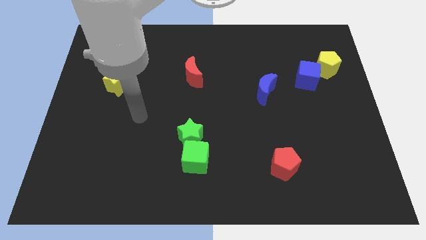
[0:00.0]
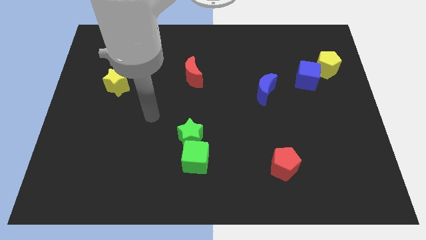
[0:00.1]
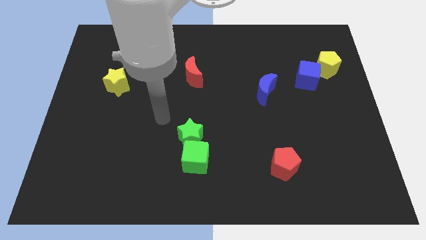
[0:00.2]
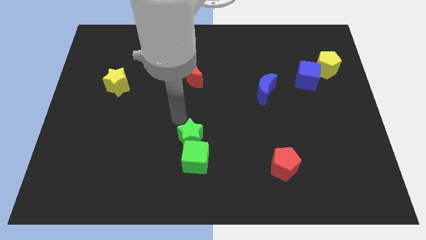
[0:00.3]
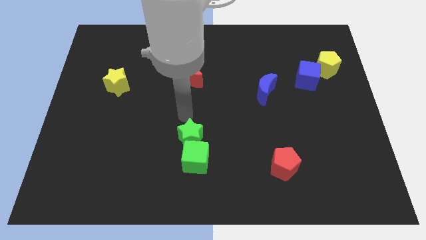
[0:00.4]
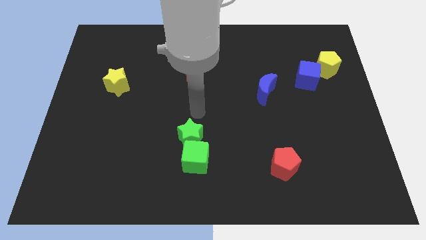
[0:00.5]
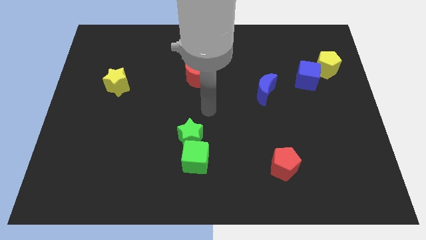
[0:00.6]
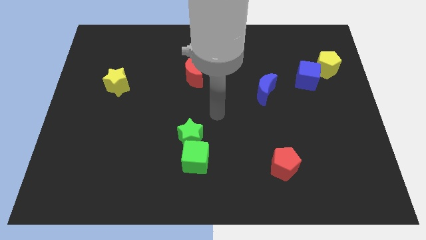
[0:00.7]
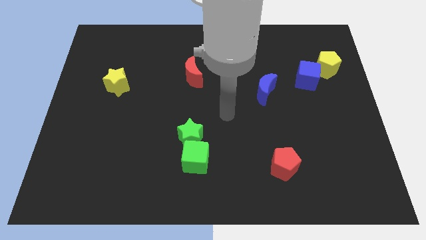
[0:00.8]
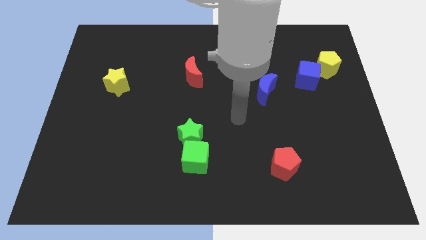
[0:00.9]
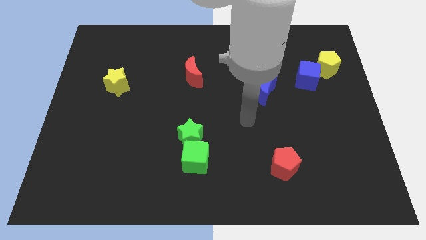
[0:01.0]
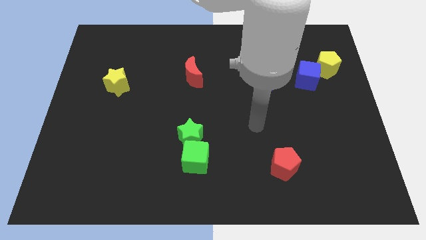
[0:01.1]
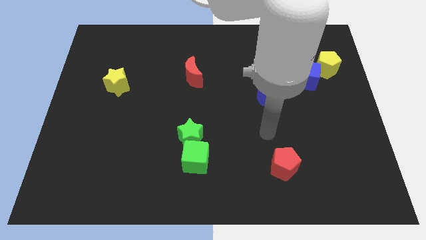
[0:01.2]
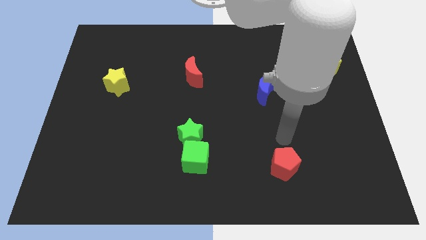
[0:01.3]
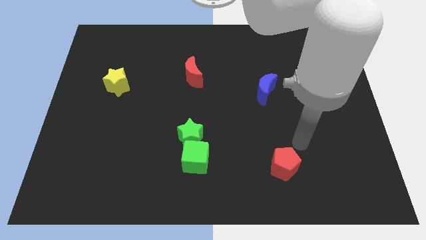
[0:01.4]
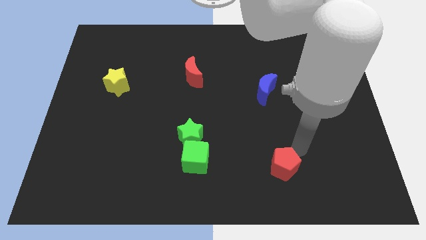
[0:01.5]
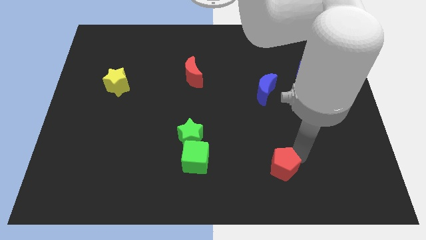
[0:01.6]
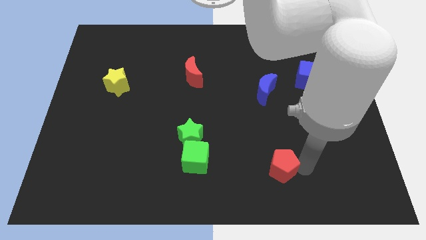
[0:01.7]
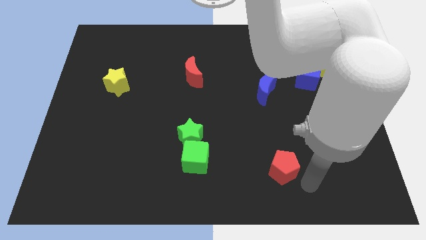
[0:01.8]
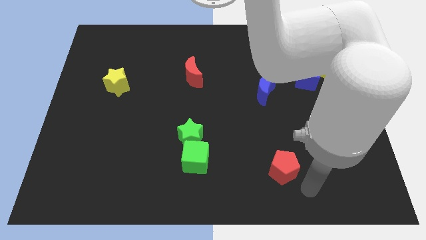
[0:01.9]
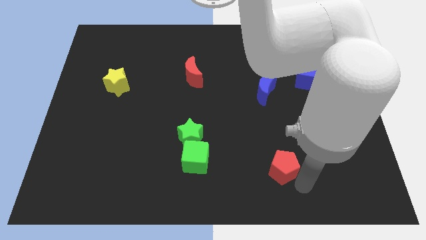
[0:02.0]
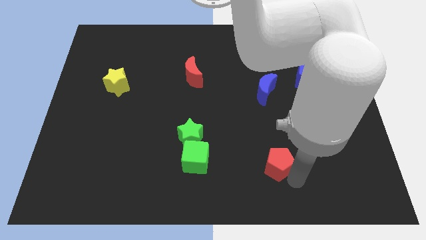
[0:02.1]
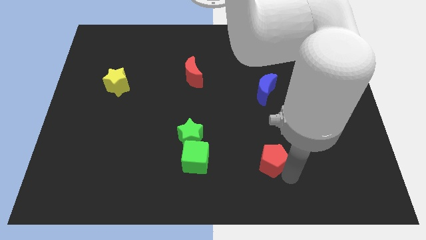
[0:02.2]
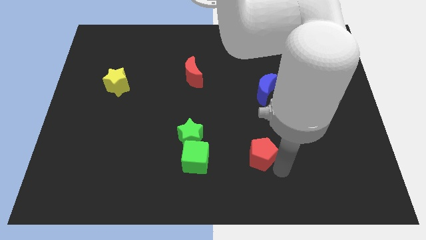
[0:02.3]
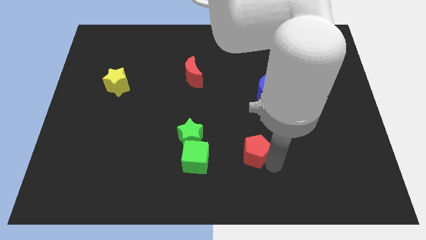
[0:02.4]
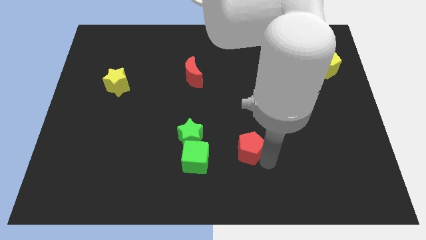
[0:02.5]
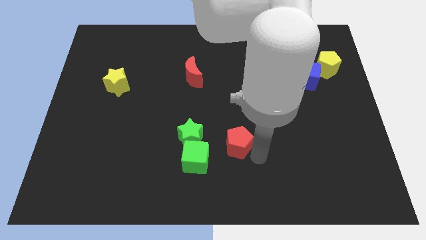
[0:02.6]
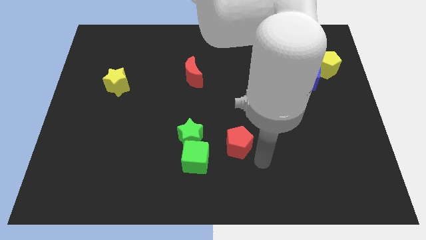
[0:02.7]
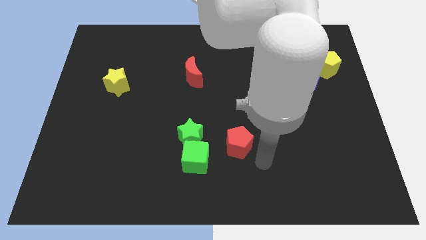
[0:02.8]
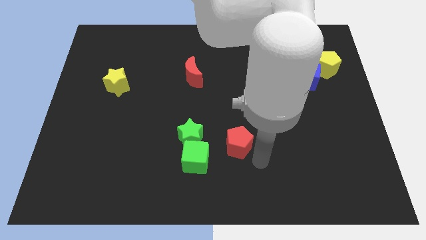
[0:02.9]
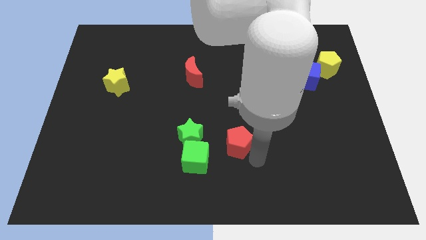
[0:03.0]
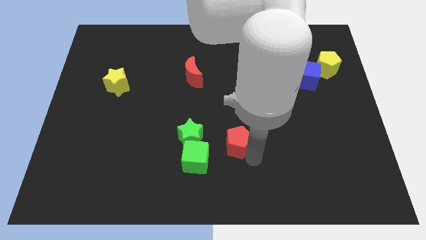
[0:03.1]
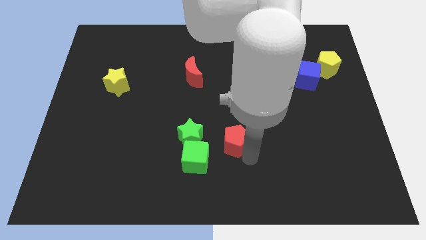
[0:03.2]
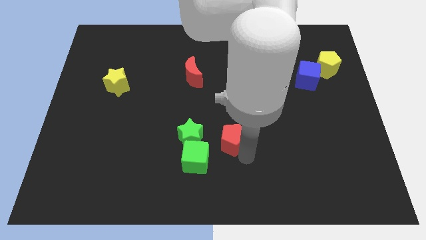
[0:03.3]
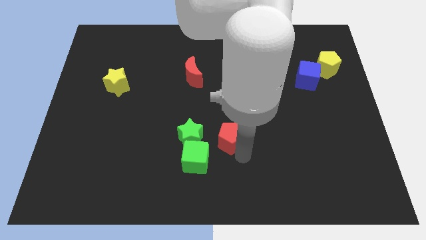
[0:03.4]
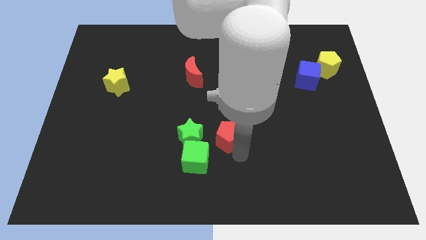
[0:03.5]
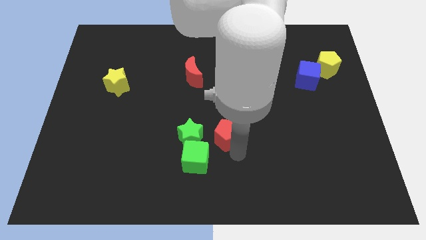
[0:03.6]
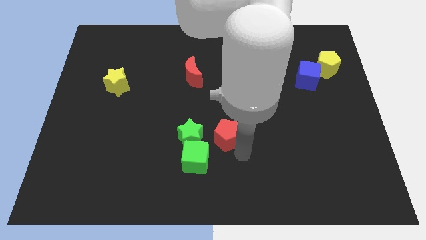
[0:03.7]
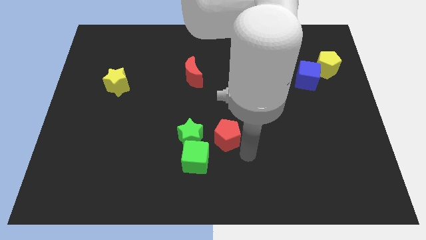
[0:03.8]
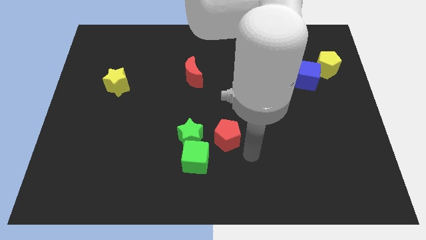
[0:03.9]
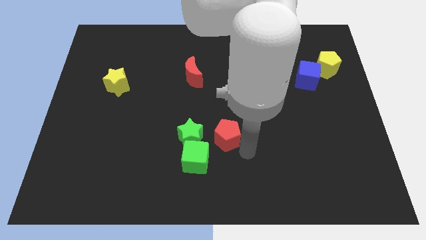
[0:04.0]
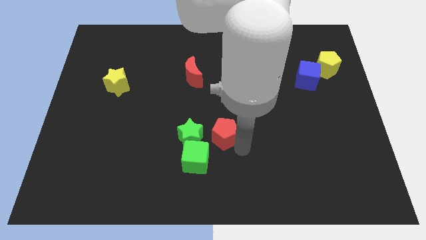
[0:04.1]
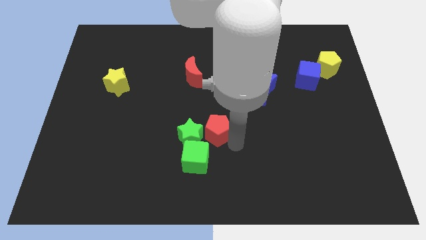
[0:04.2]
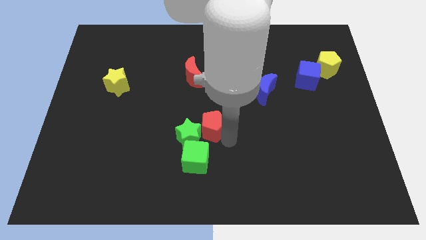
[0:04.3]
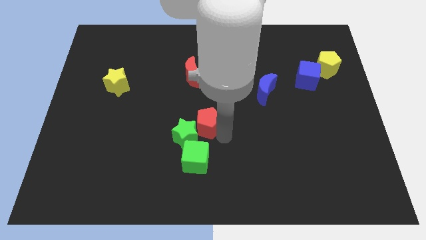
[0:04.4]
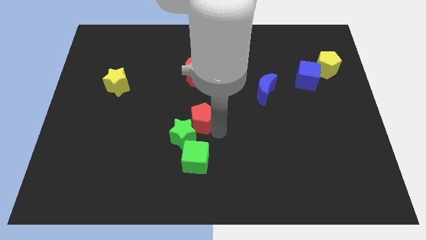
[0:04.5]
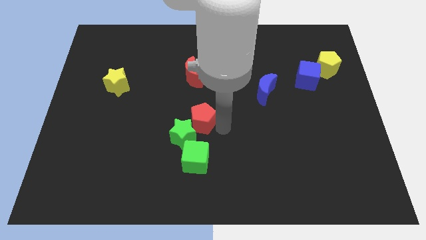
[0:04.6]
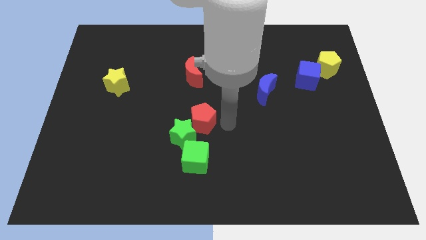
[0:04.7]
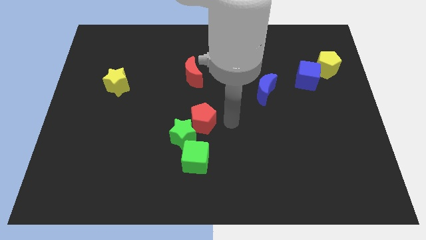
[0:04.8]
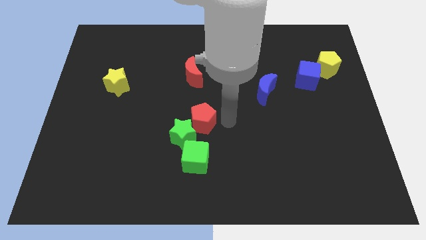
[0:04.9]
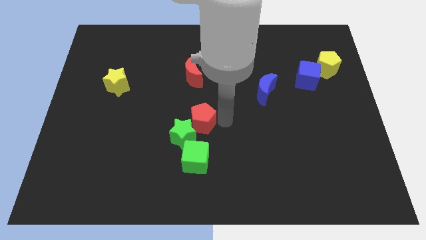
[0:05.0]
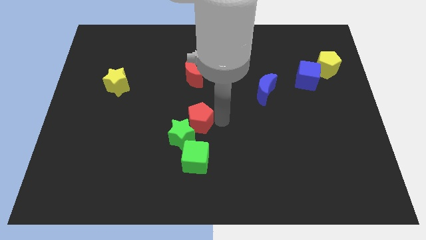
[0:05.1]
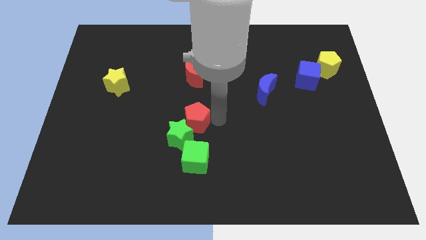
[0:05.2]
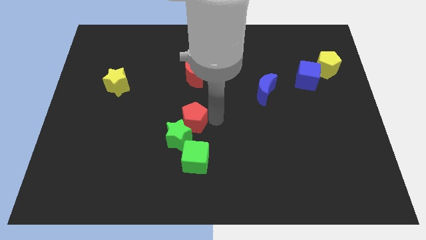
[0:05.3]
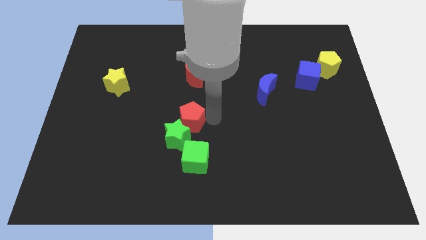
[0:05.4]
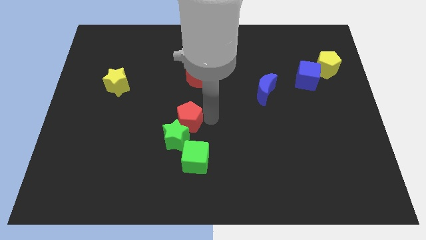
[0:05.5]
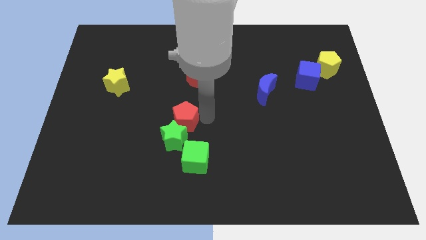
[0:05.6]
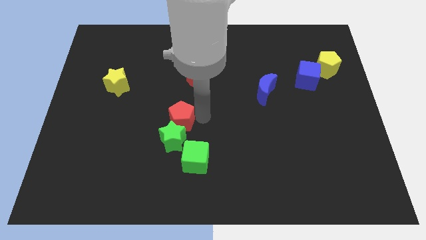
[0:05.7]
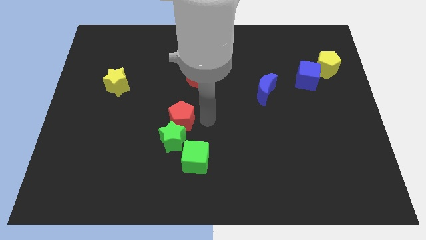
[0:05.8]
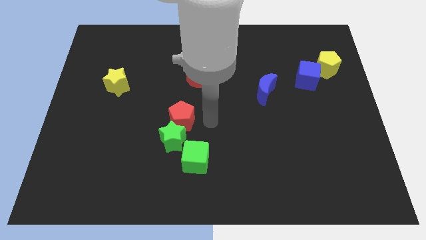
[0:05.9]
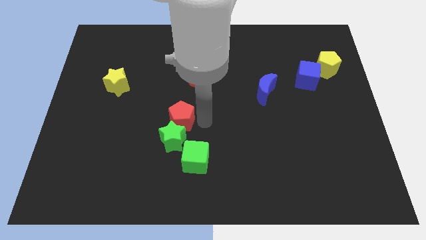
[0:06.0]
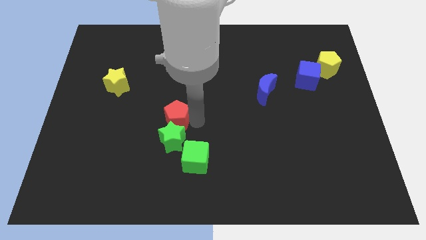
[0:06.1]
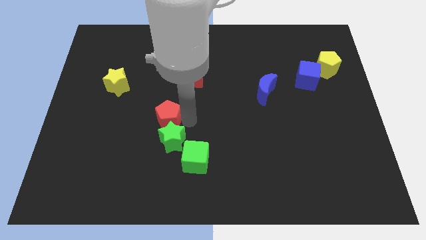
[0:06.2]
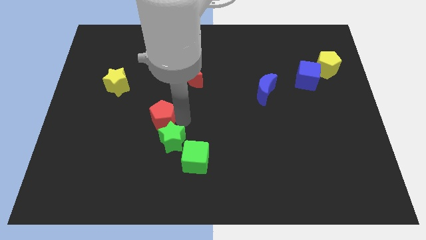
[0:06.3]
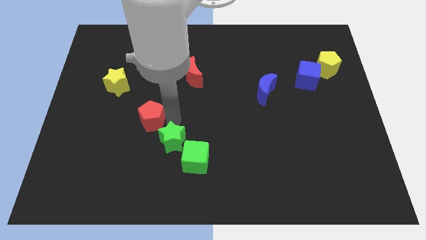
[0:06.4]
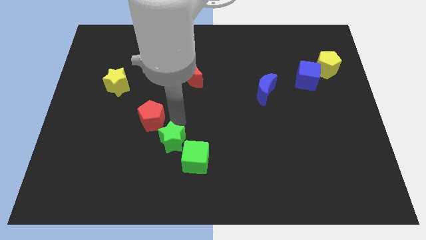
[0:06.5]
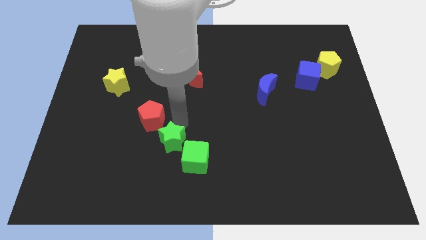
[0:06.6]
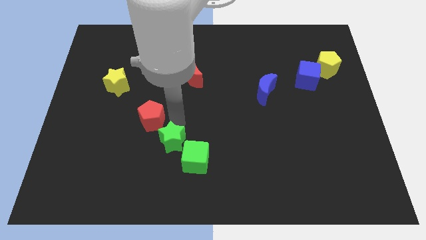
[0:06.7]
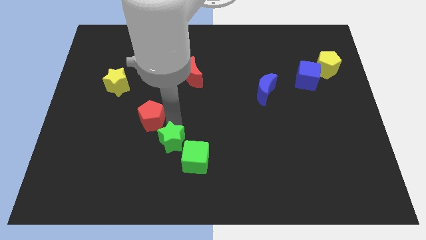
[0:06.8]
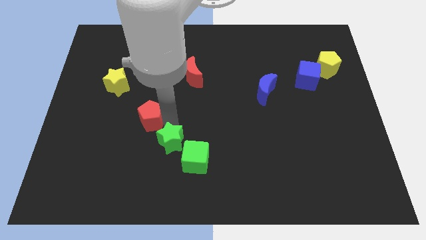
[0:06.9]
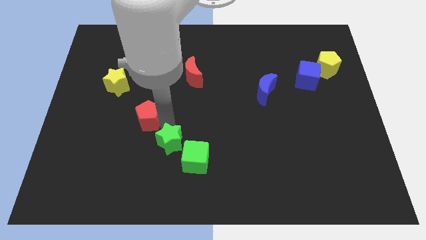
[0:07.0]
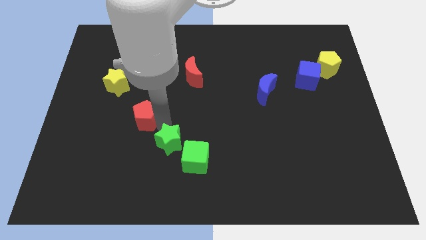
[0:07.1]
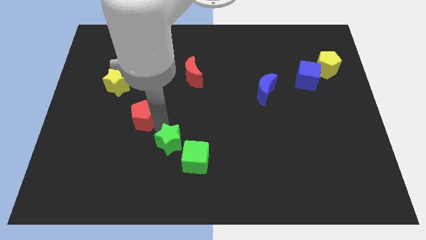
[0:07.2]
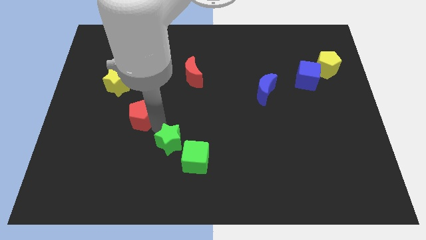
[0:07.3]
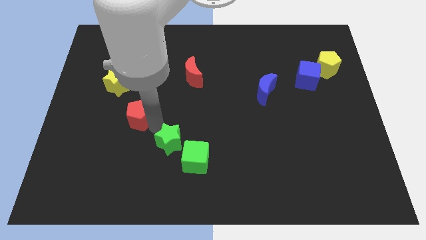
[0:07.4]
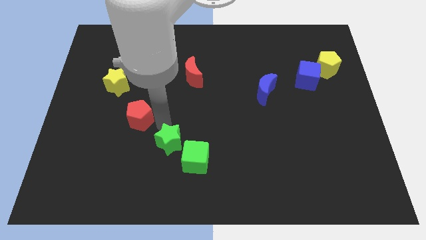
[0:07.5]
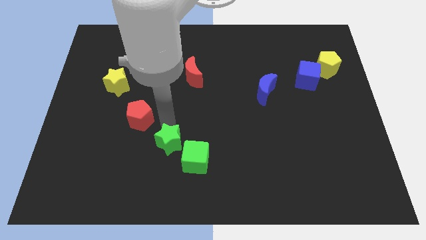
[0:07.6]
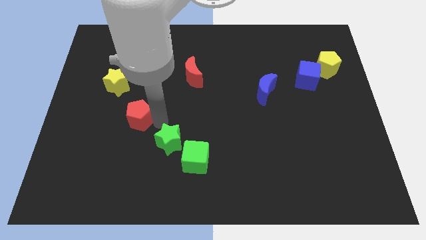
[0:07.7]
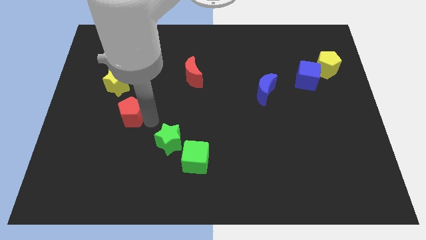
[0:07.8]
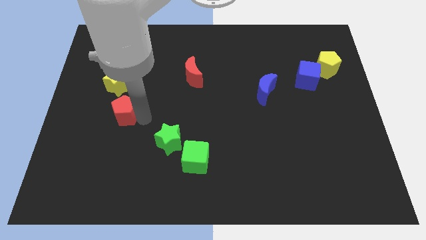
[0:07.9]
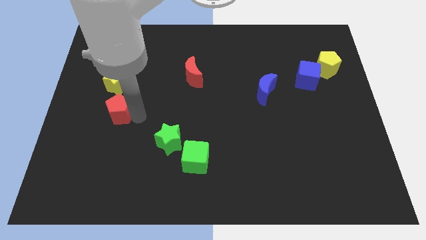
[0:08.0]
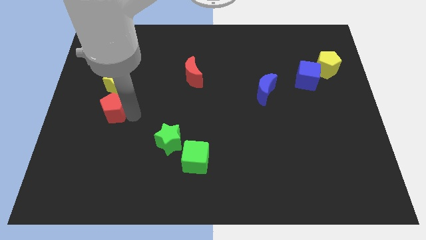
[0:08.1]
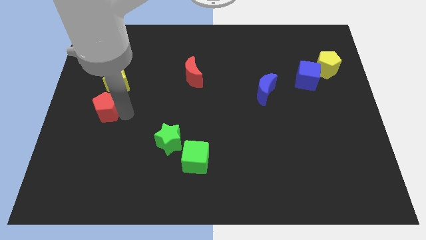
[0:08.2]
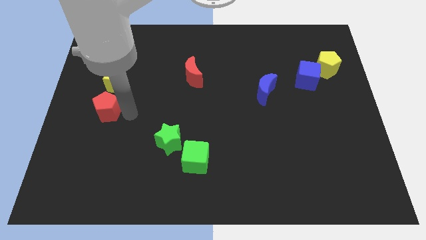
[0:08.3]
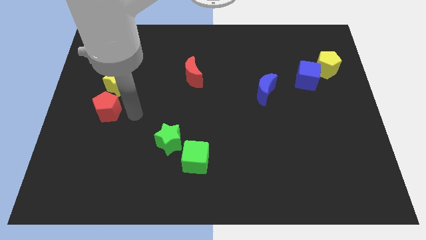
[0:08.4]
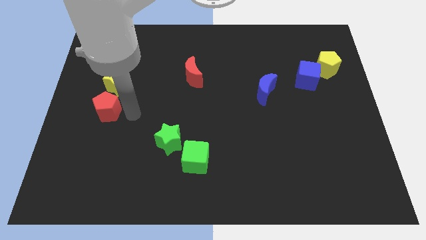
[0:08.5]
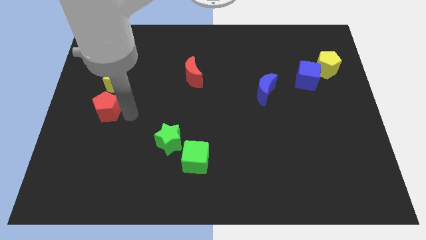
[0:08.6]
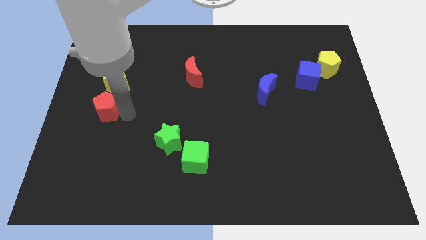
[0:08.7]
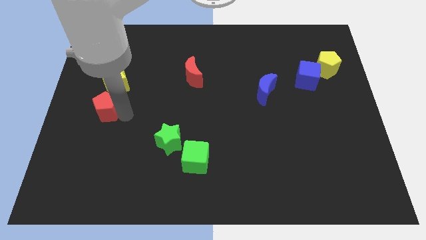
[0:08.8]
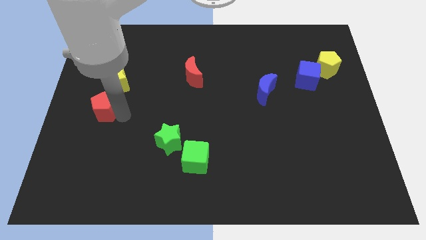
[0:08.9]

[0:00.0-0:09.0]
push the red pentagon to the left side of the board
